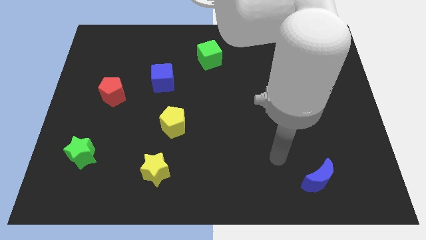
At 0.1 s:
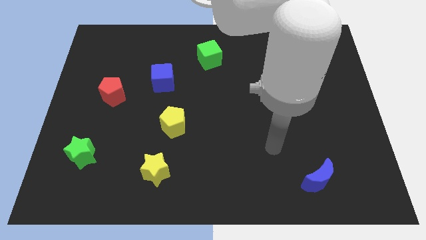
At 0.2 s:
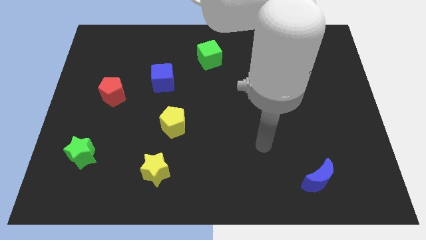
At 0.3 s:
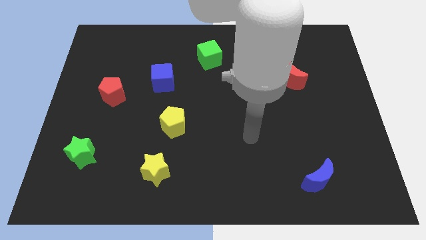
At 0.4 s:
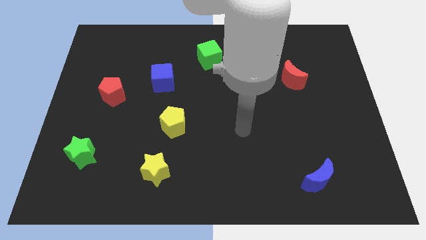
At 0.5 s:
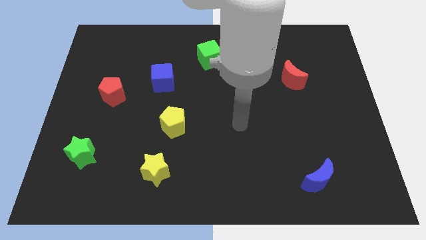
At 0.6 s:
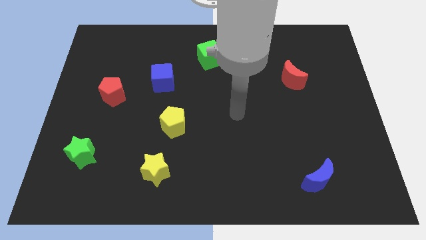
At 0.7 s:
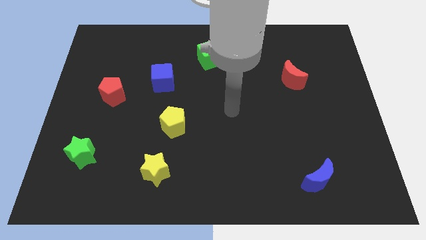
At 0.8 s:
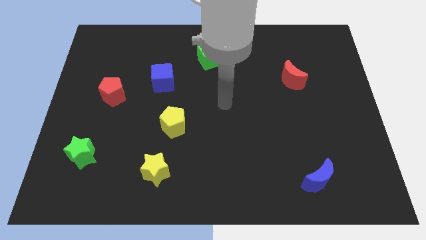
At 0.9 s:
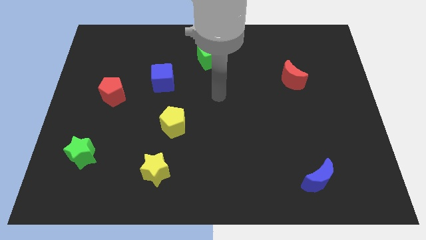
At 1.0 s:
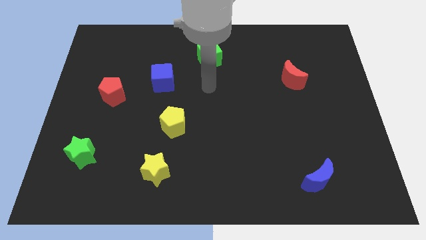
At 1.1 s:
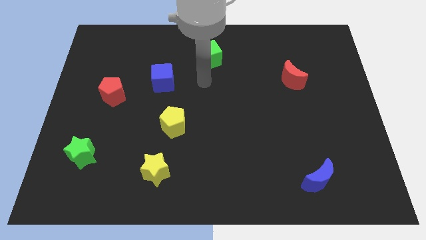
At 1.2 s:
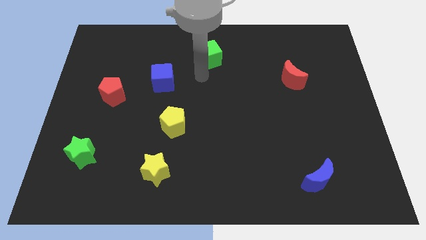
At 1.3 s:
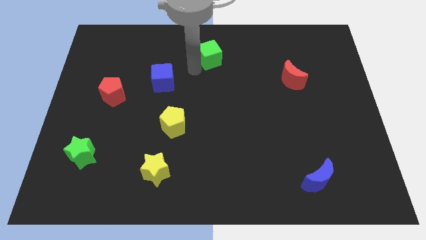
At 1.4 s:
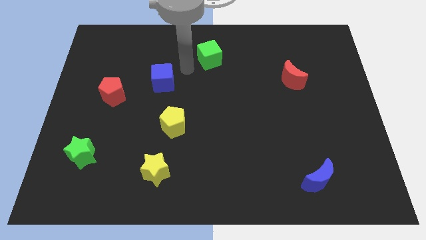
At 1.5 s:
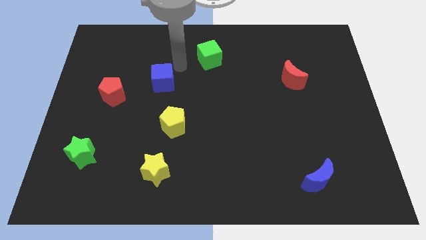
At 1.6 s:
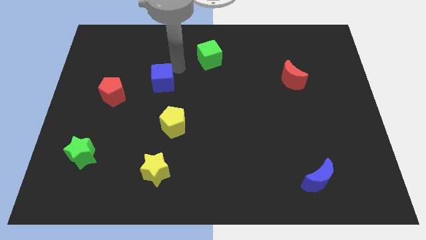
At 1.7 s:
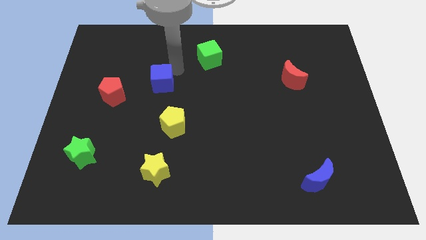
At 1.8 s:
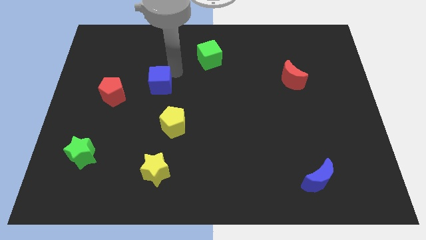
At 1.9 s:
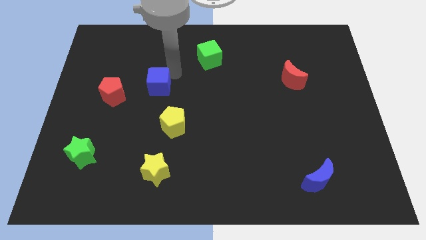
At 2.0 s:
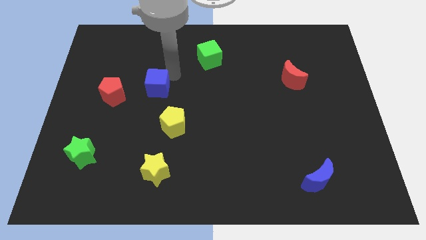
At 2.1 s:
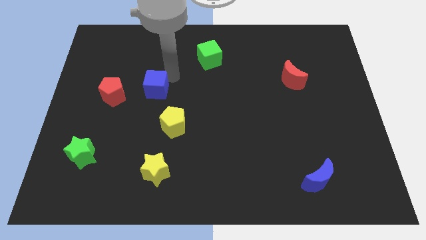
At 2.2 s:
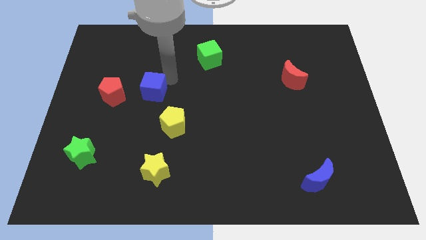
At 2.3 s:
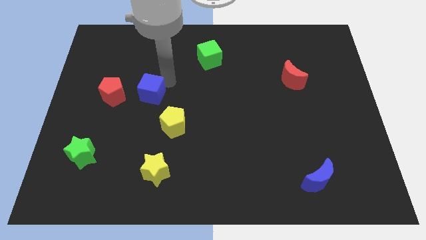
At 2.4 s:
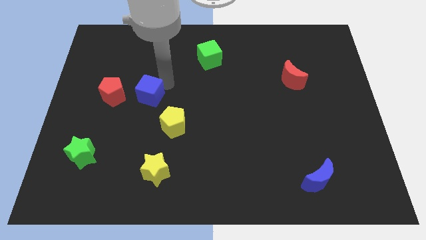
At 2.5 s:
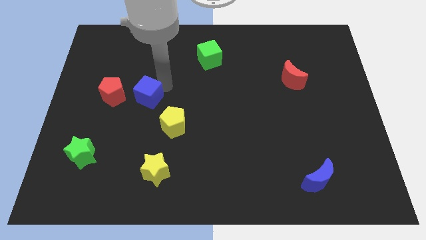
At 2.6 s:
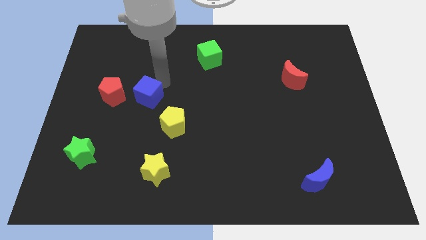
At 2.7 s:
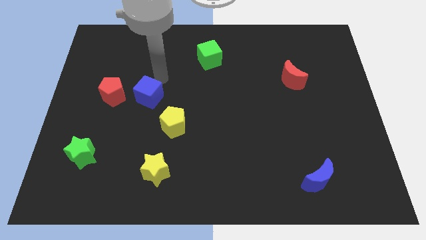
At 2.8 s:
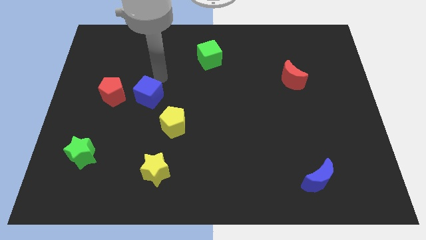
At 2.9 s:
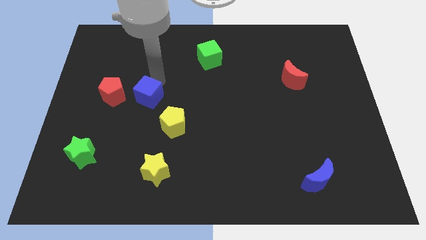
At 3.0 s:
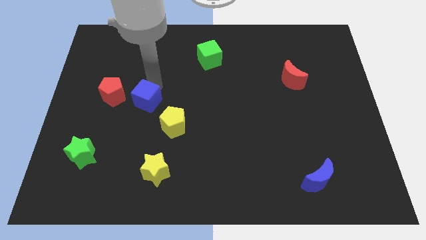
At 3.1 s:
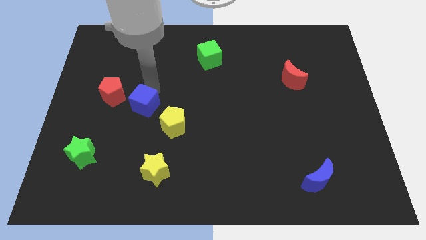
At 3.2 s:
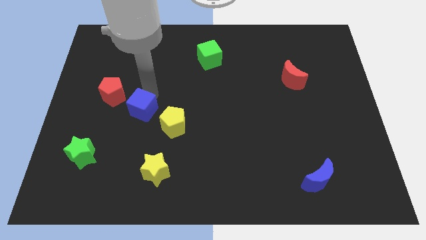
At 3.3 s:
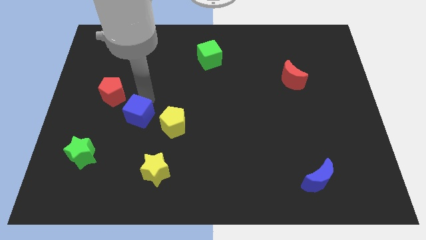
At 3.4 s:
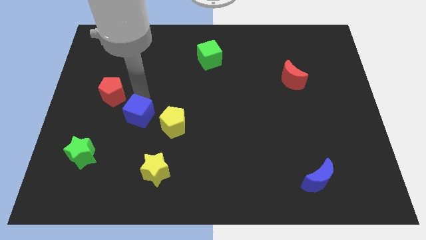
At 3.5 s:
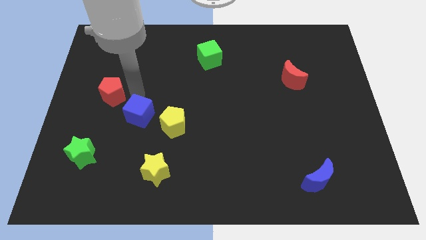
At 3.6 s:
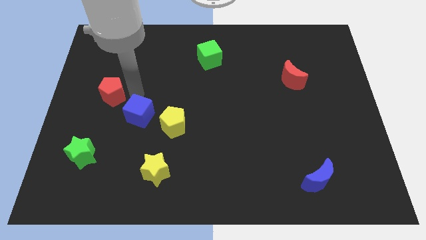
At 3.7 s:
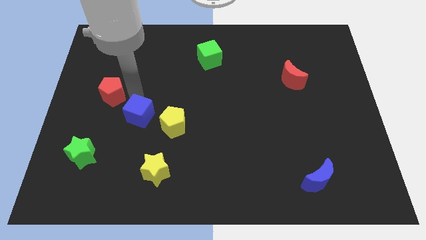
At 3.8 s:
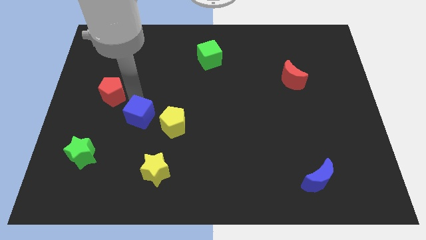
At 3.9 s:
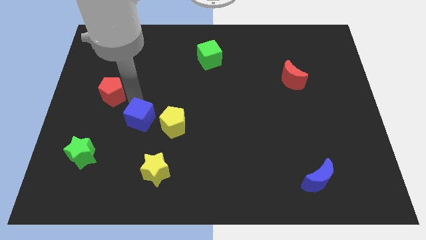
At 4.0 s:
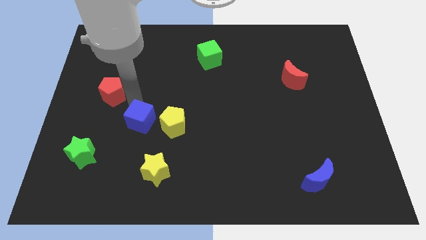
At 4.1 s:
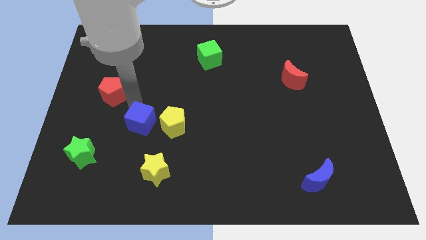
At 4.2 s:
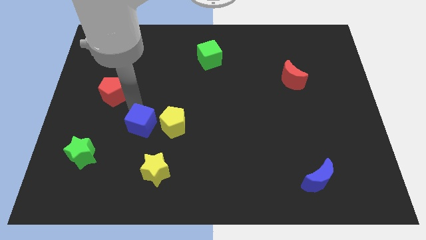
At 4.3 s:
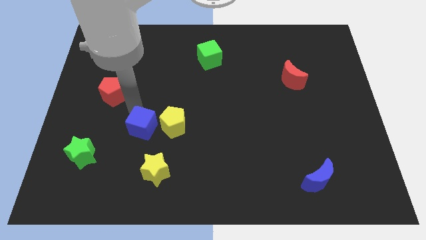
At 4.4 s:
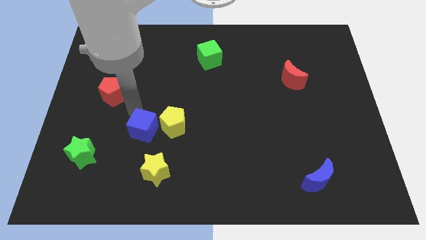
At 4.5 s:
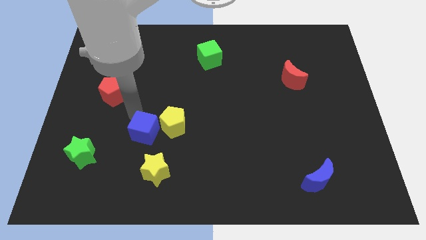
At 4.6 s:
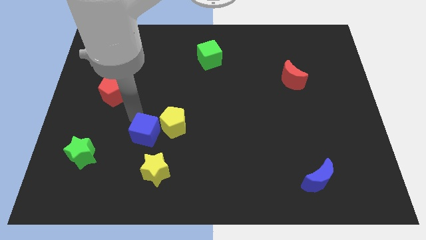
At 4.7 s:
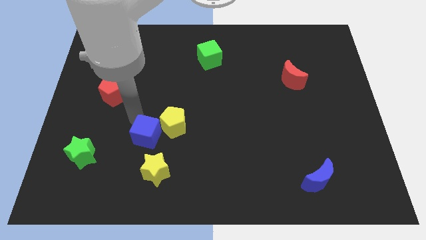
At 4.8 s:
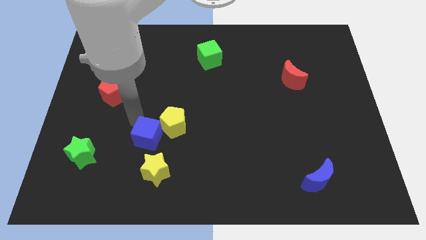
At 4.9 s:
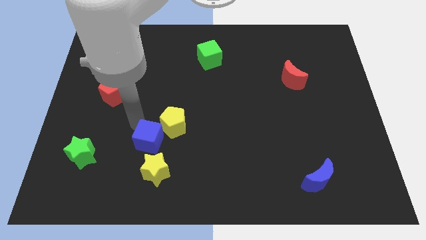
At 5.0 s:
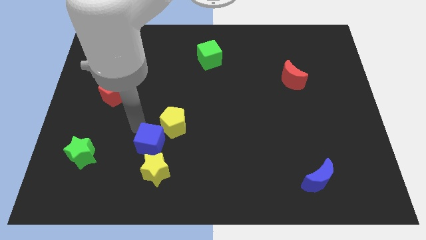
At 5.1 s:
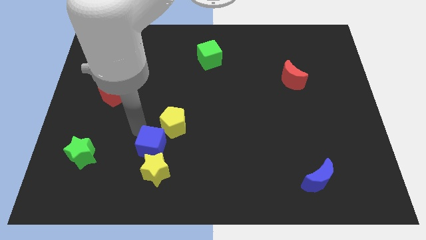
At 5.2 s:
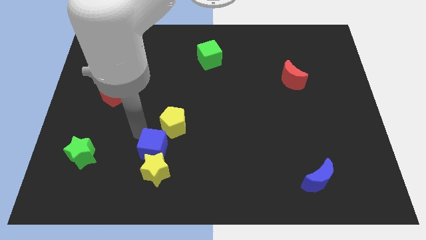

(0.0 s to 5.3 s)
slide the blue cube towards the yellow star
